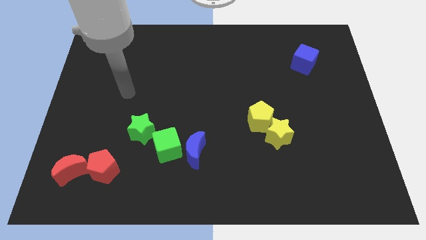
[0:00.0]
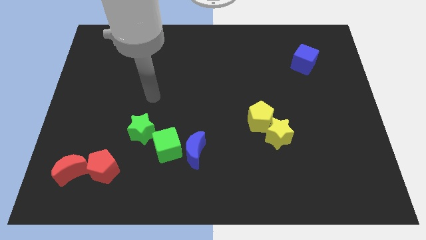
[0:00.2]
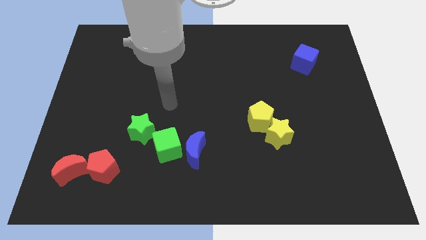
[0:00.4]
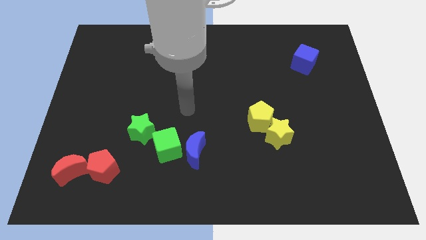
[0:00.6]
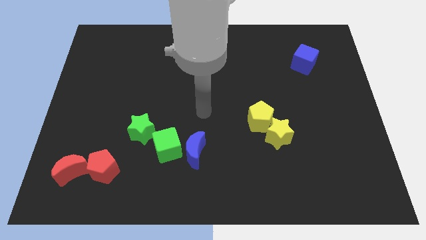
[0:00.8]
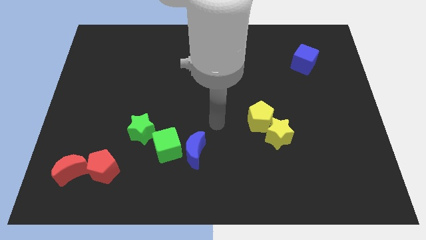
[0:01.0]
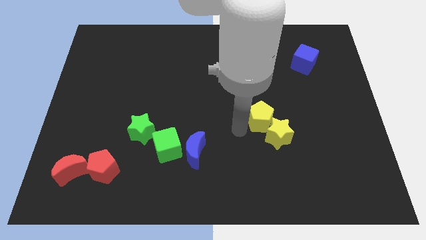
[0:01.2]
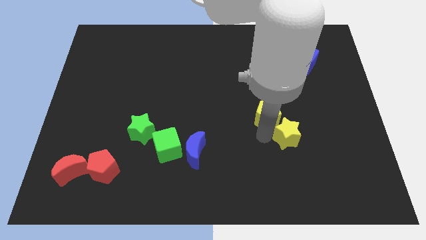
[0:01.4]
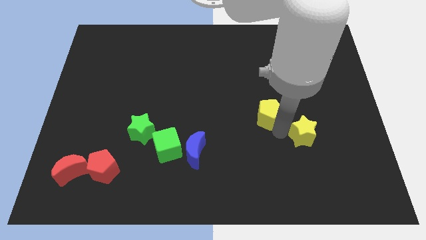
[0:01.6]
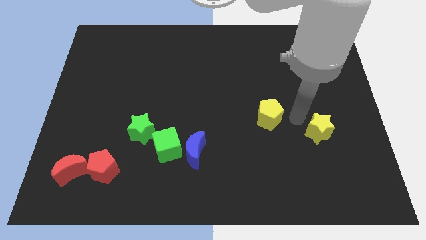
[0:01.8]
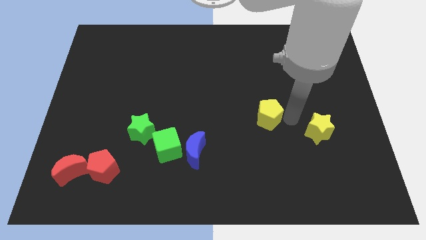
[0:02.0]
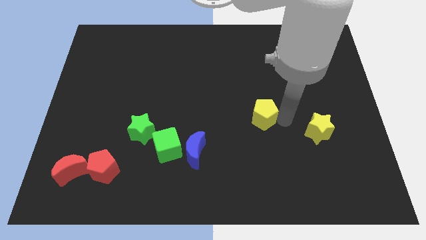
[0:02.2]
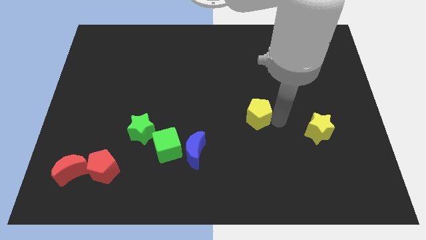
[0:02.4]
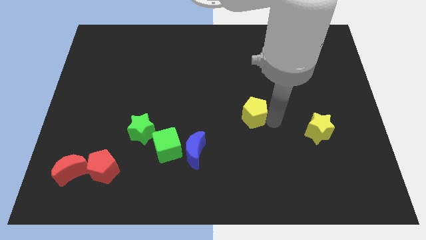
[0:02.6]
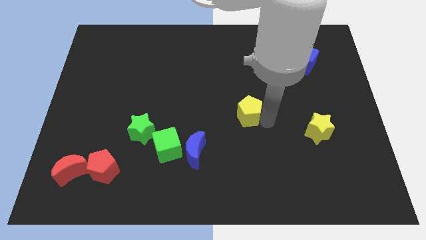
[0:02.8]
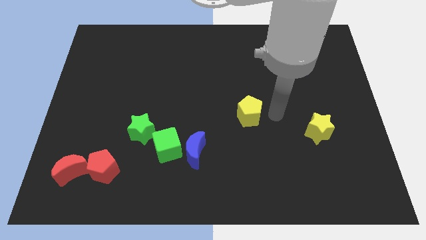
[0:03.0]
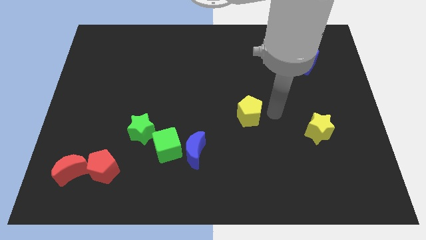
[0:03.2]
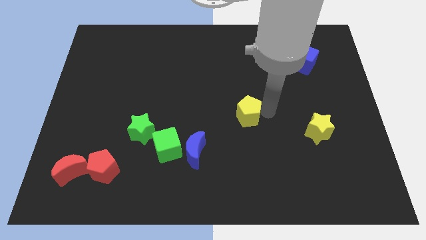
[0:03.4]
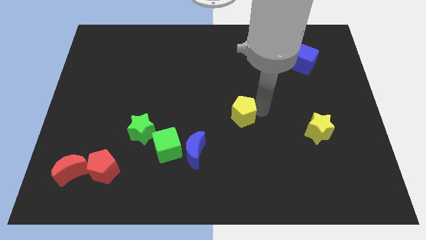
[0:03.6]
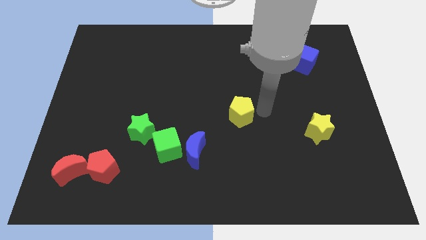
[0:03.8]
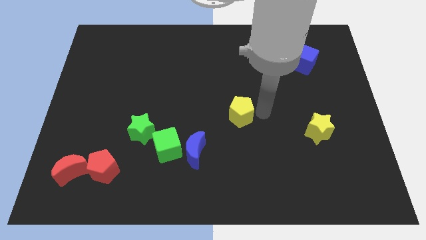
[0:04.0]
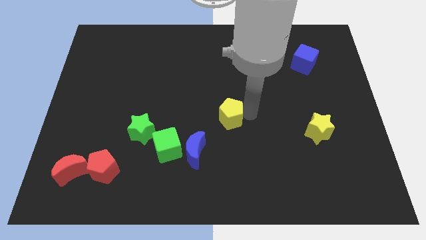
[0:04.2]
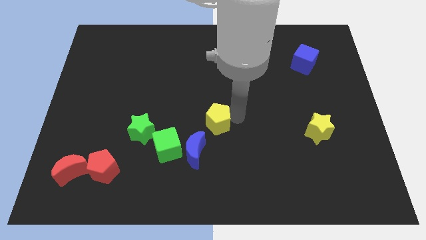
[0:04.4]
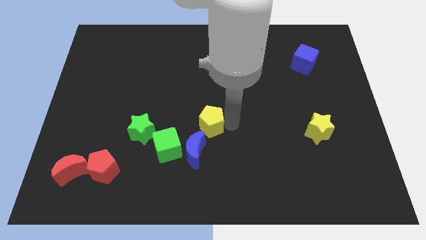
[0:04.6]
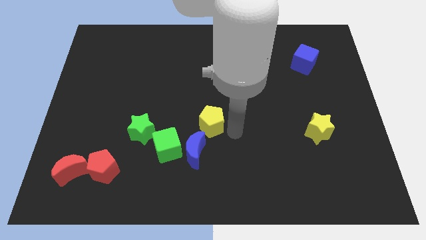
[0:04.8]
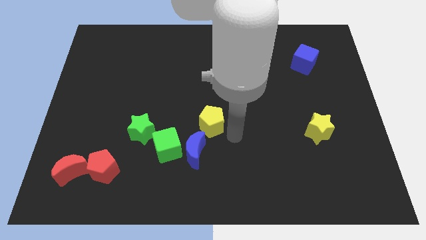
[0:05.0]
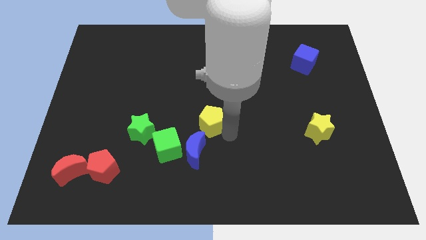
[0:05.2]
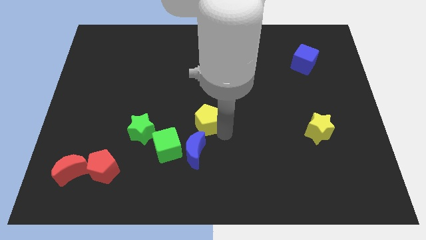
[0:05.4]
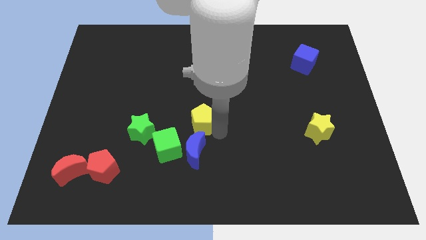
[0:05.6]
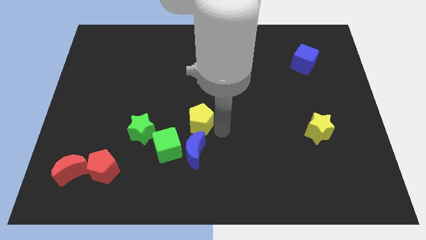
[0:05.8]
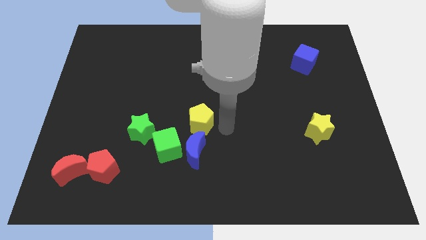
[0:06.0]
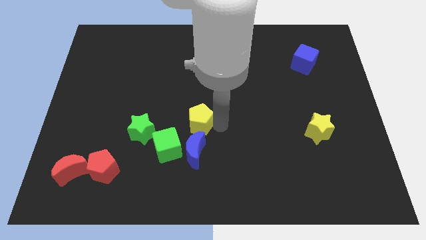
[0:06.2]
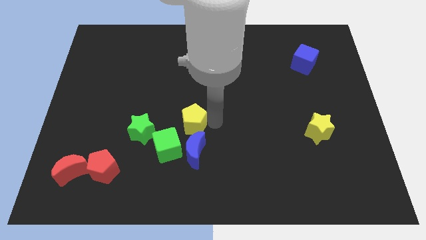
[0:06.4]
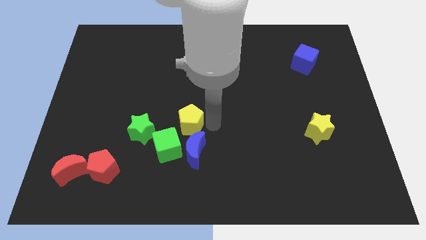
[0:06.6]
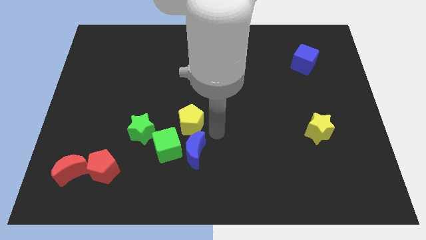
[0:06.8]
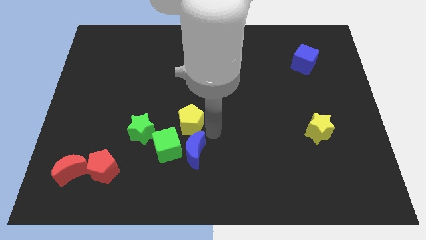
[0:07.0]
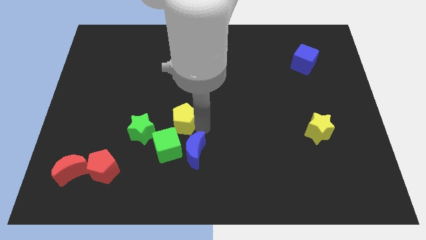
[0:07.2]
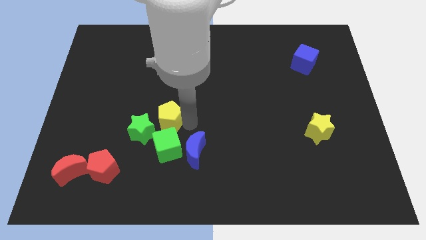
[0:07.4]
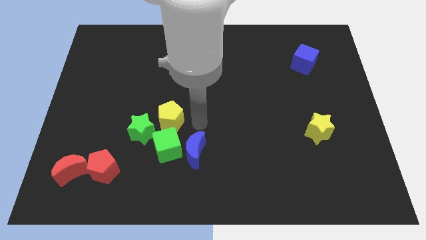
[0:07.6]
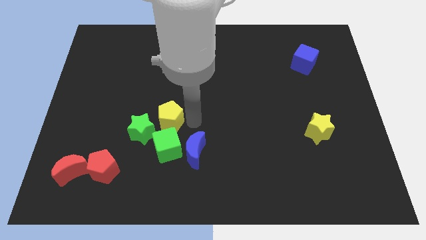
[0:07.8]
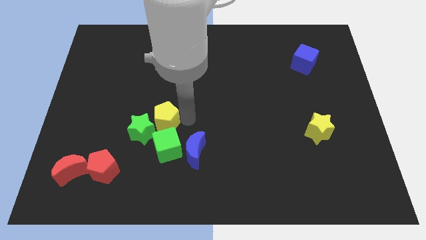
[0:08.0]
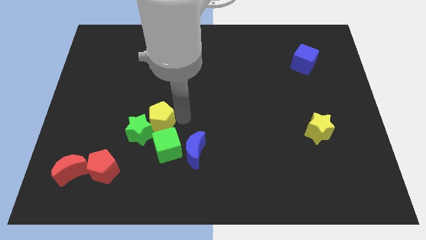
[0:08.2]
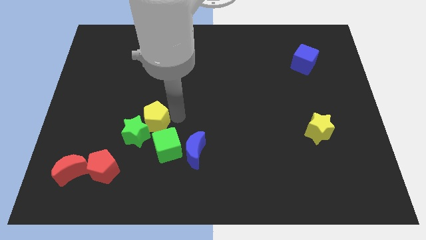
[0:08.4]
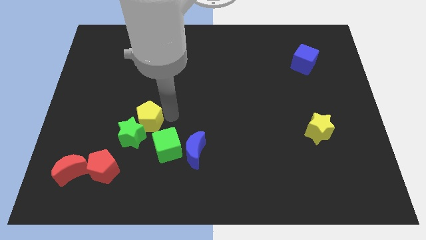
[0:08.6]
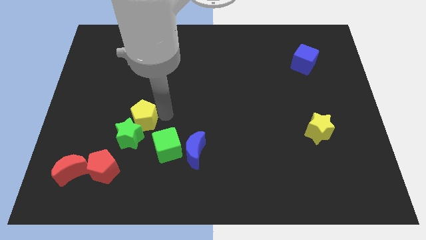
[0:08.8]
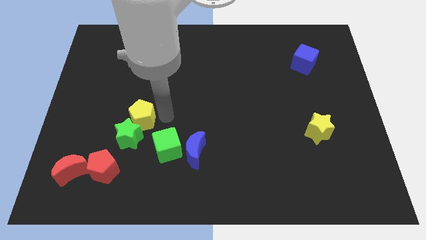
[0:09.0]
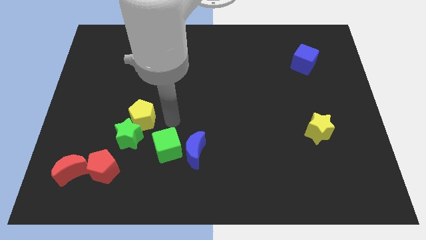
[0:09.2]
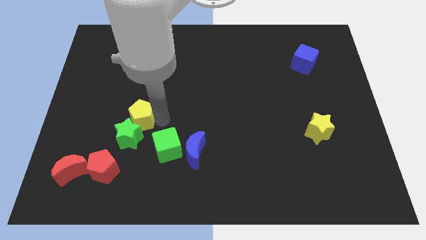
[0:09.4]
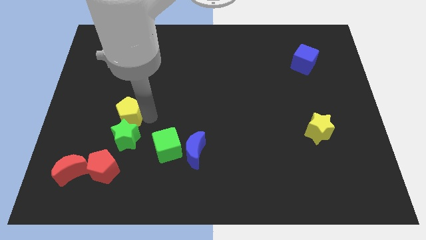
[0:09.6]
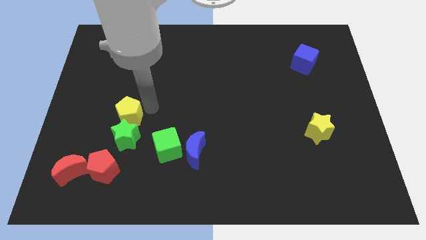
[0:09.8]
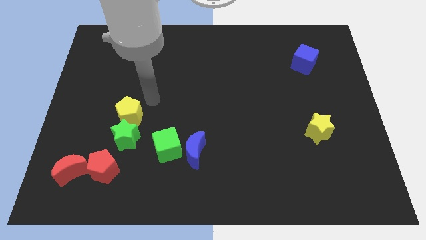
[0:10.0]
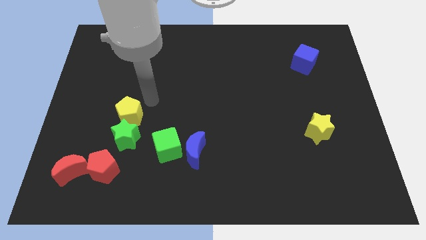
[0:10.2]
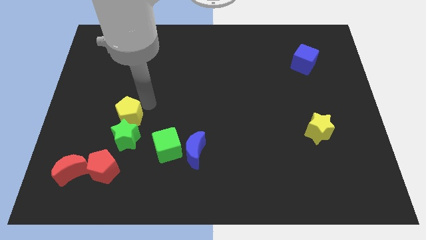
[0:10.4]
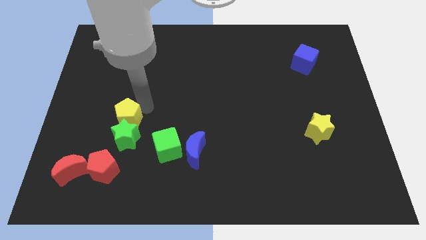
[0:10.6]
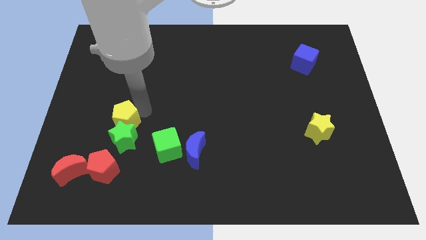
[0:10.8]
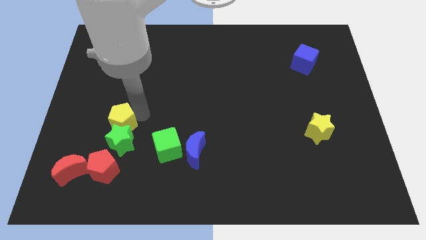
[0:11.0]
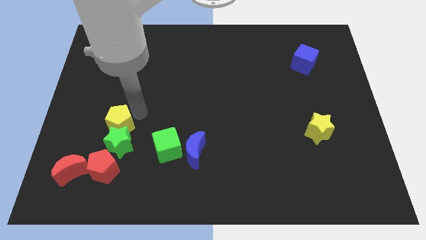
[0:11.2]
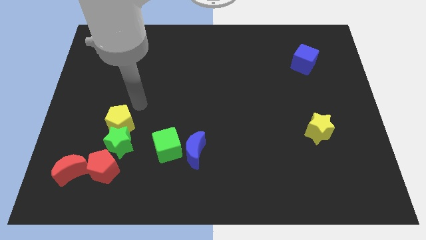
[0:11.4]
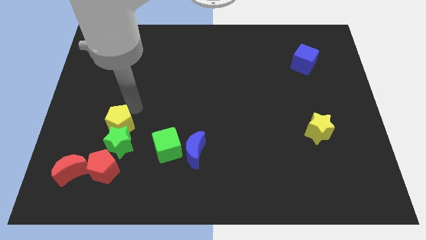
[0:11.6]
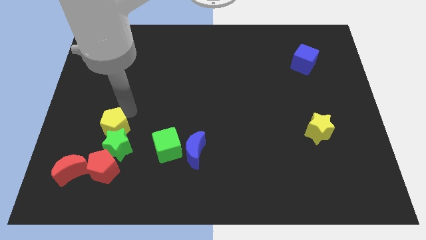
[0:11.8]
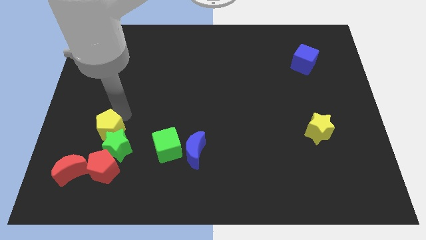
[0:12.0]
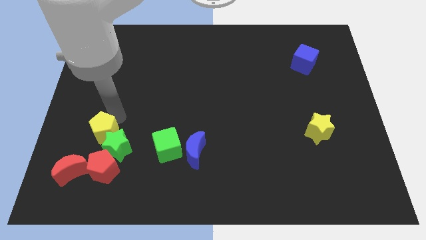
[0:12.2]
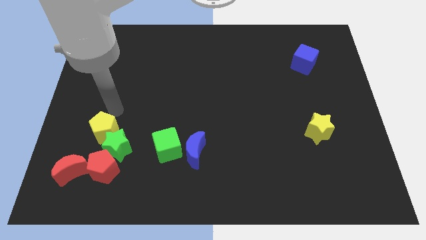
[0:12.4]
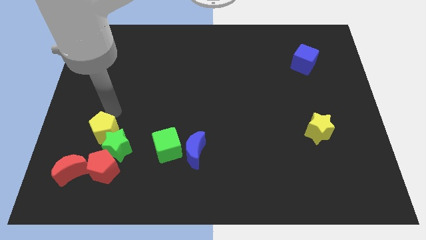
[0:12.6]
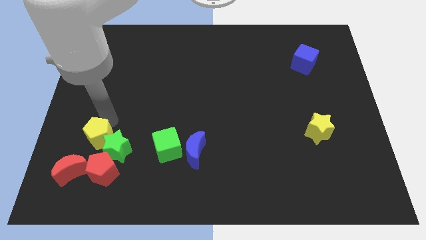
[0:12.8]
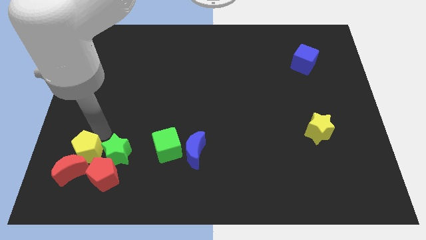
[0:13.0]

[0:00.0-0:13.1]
move the yellow pentagon towards the red moon
